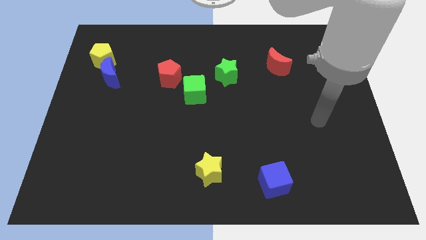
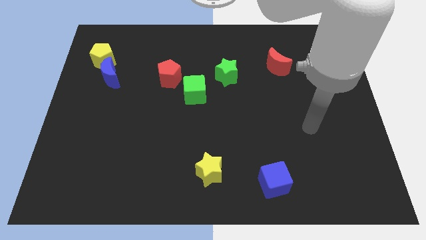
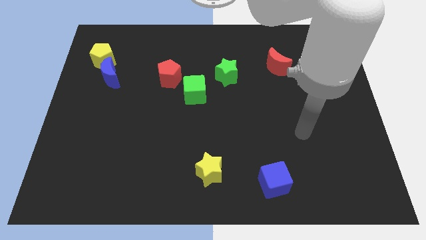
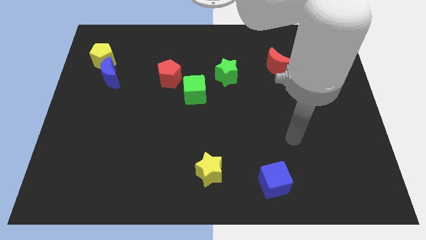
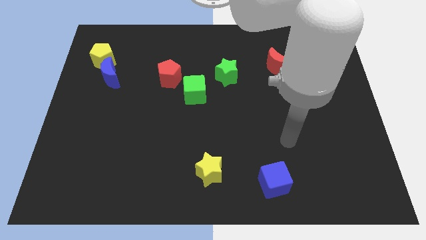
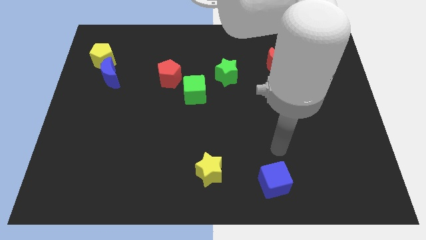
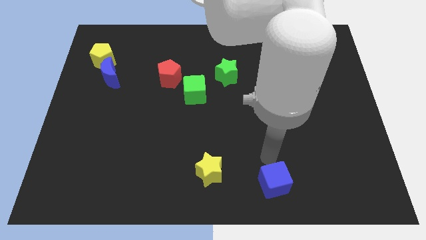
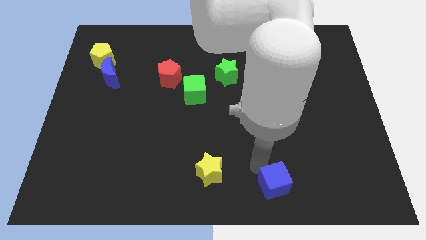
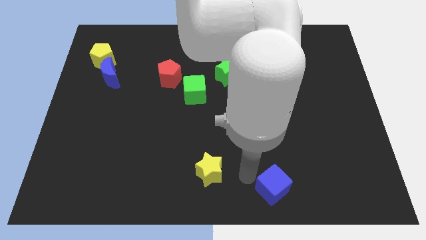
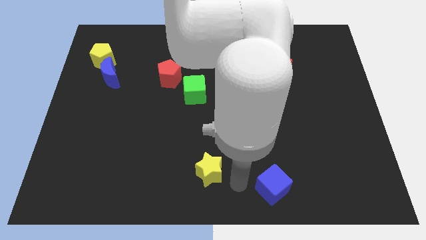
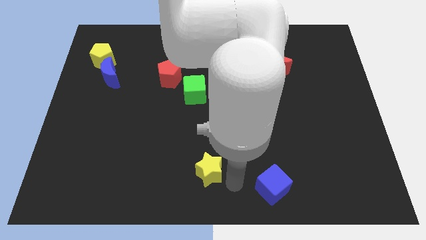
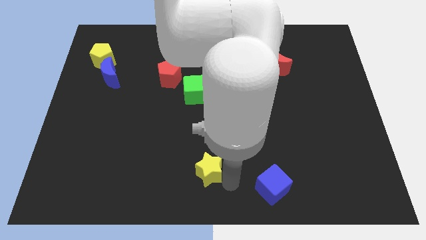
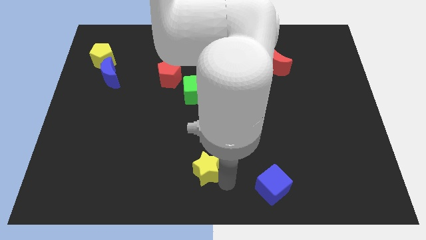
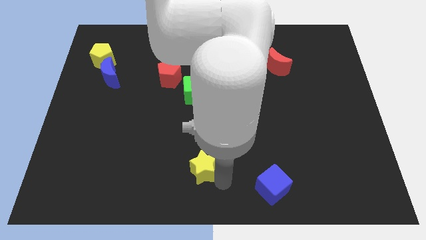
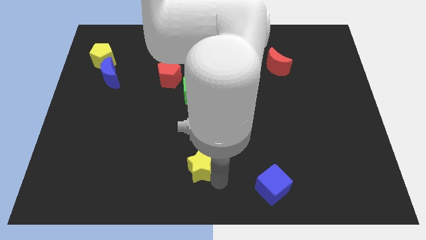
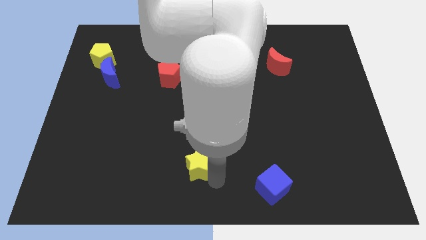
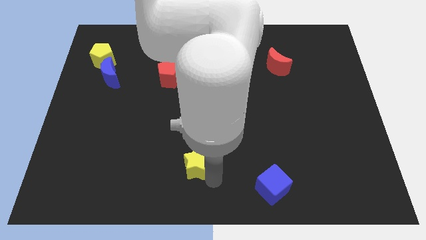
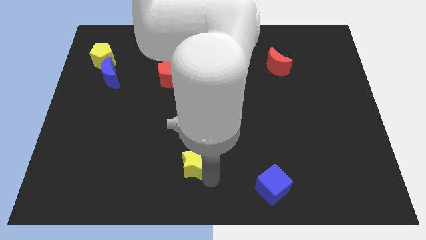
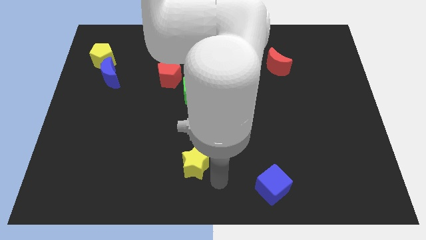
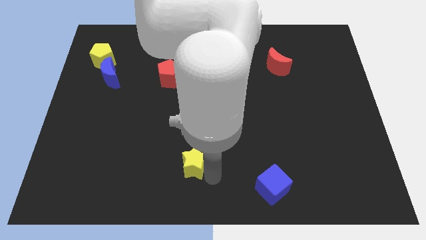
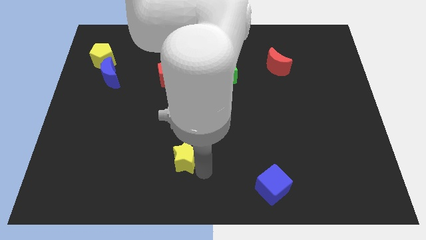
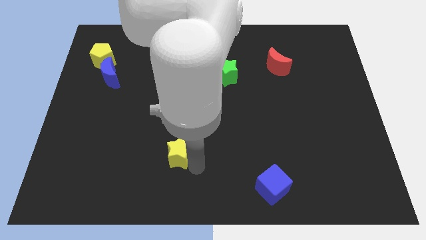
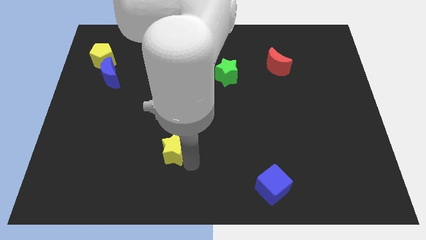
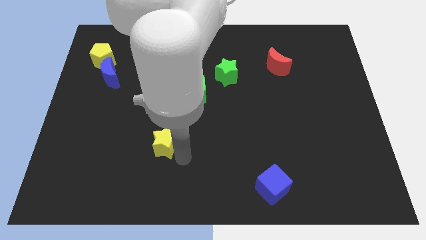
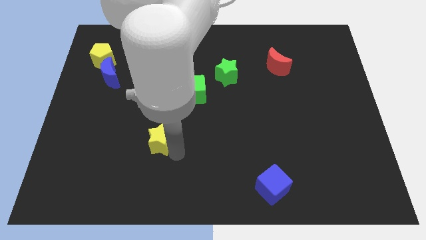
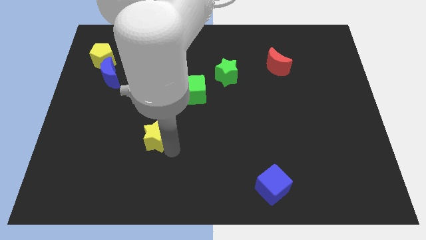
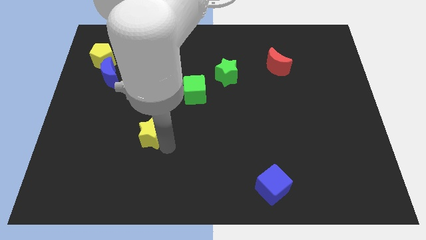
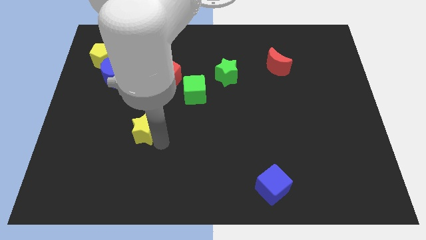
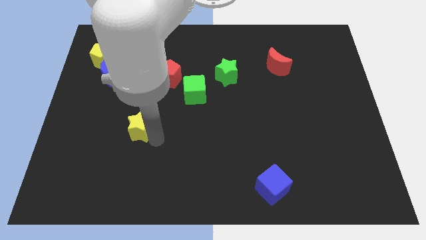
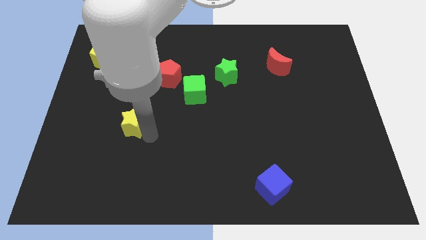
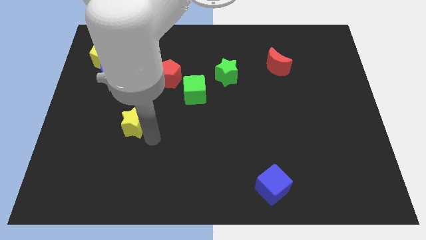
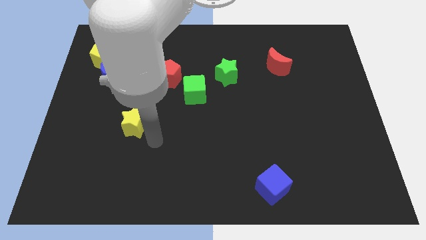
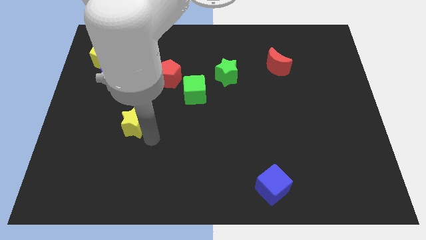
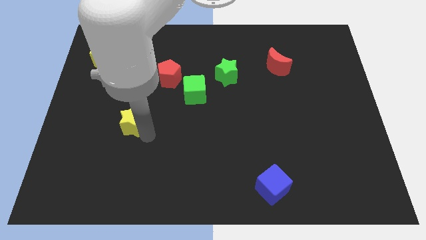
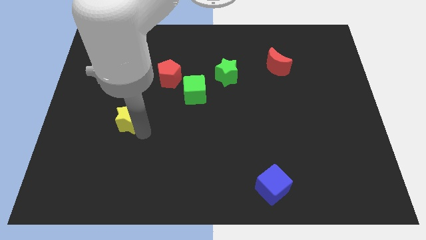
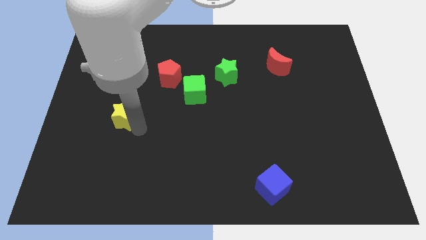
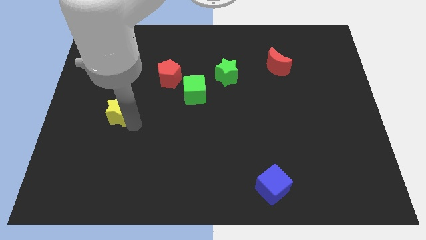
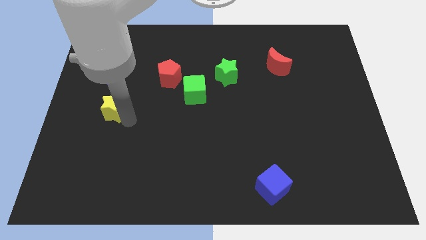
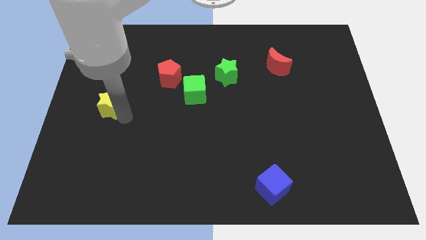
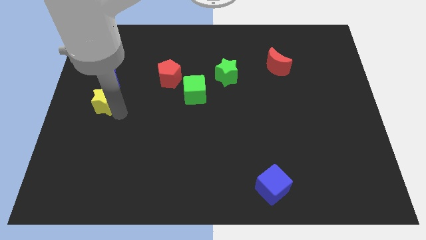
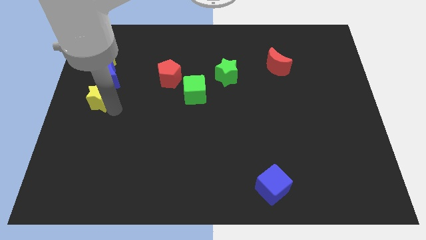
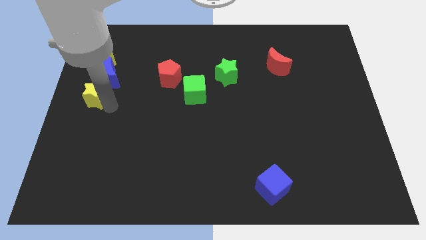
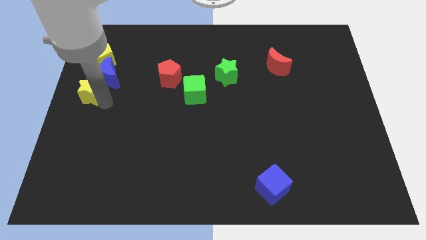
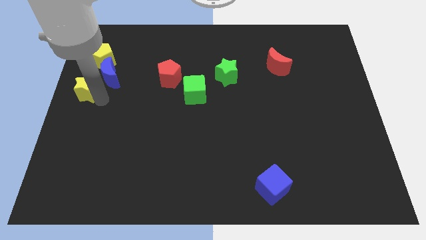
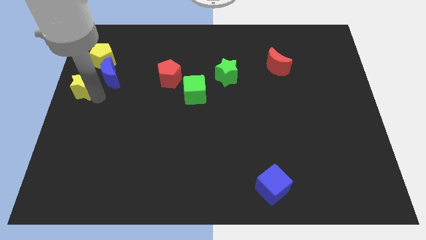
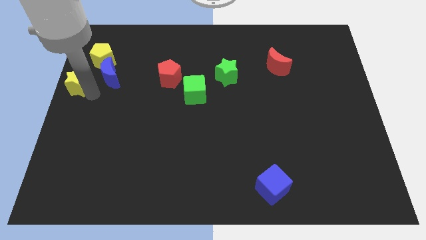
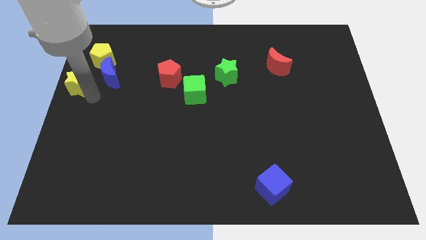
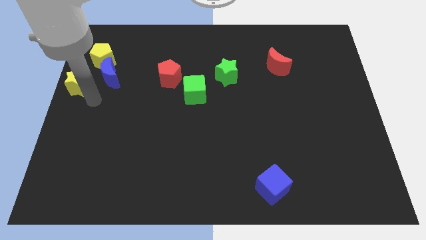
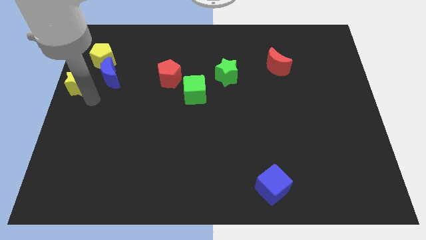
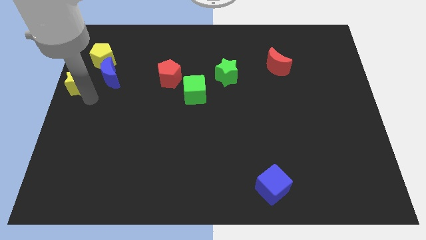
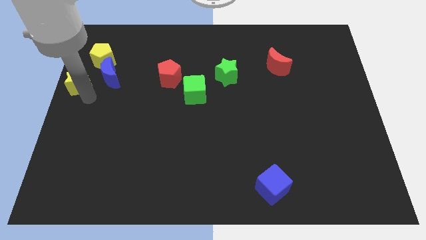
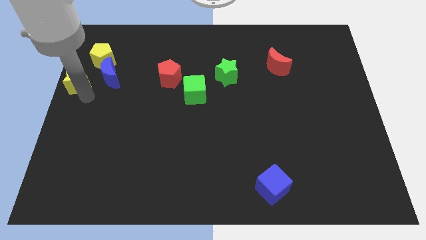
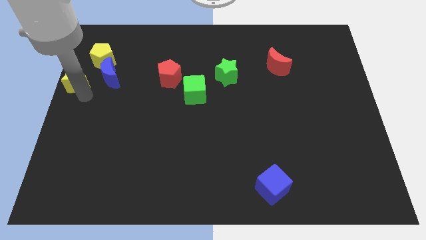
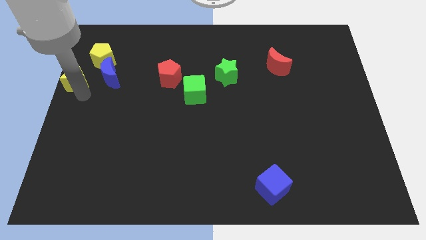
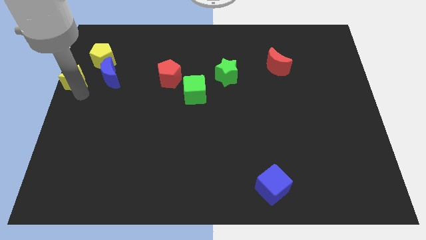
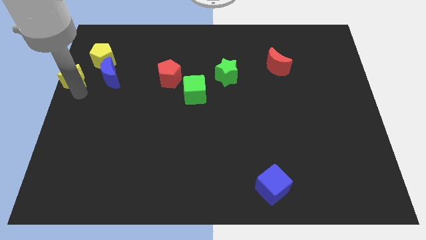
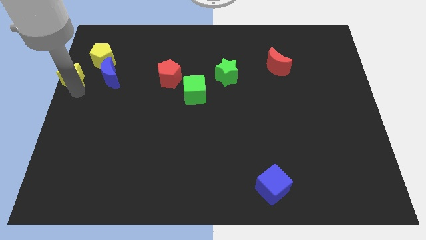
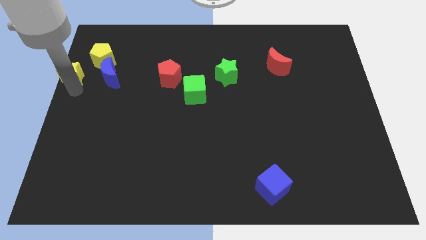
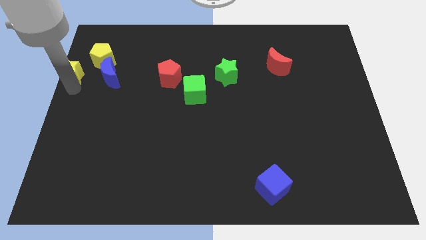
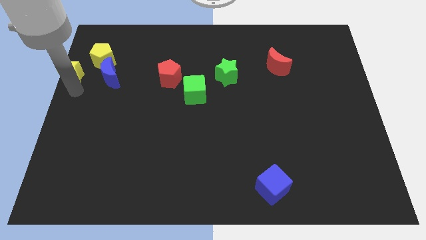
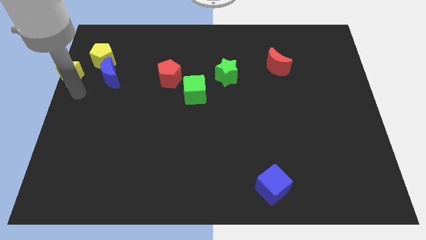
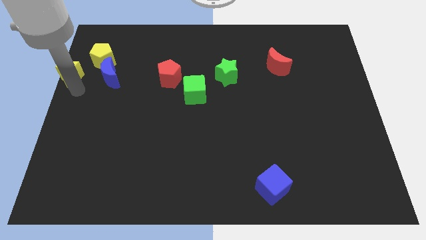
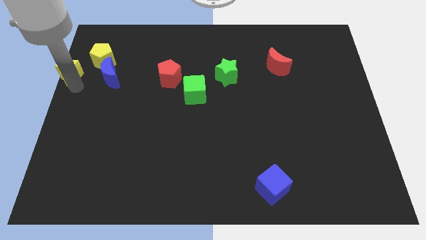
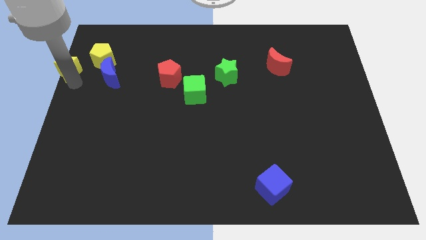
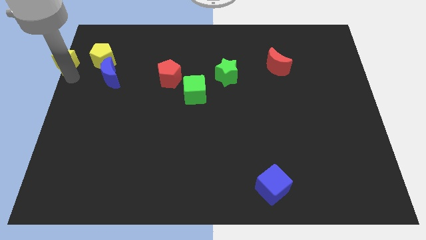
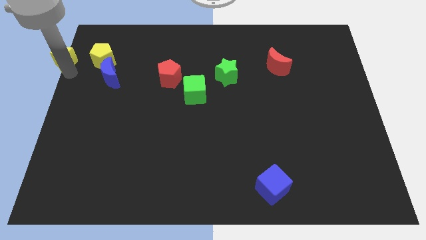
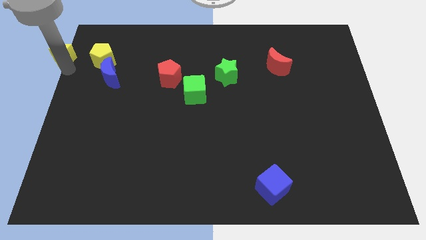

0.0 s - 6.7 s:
move the yellow star to the top left of the board
